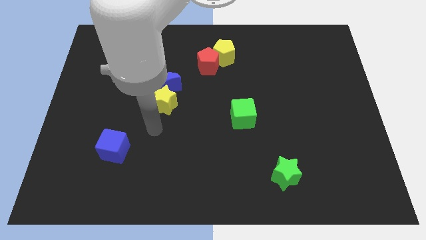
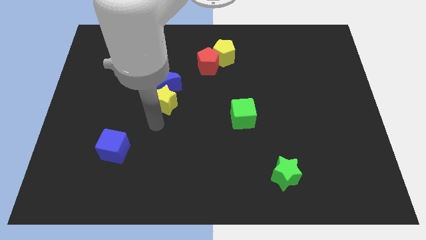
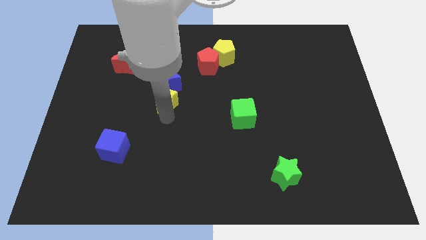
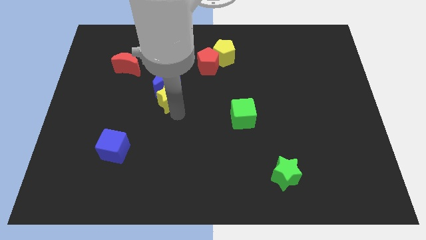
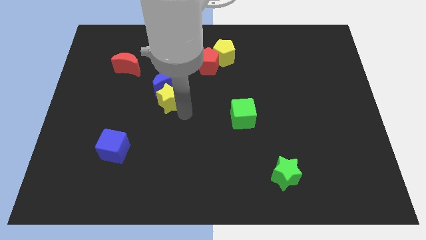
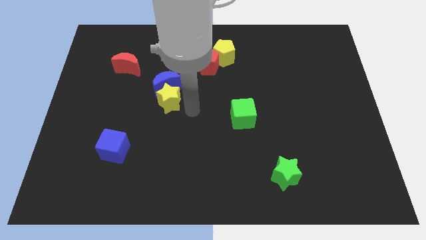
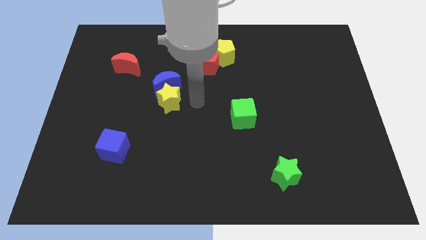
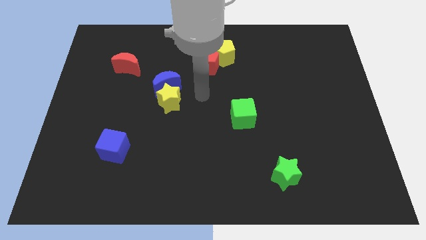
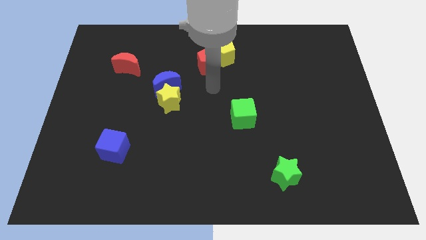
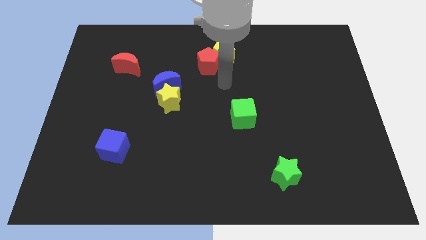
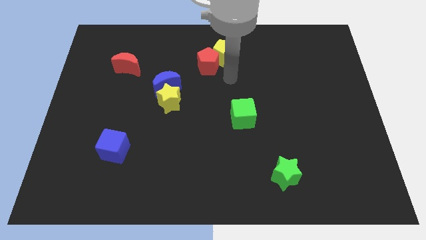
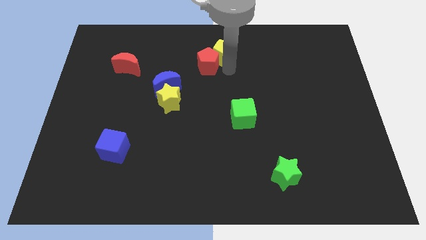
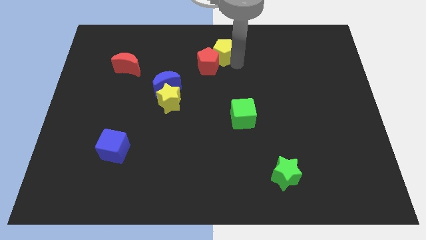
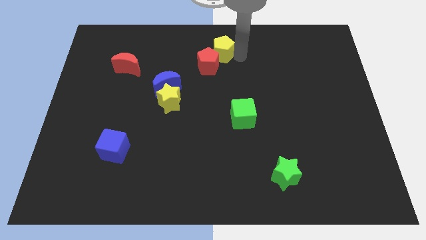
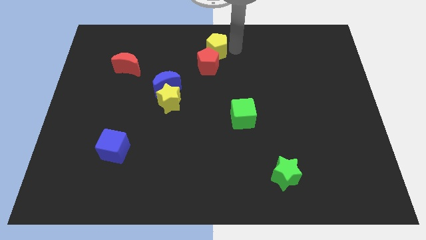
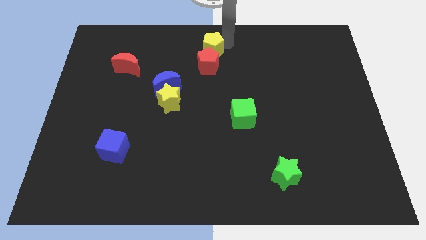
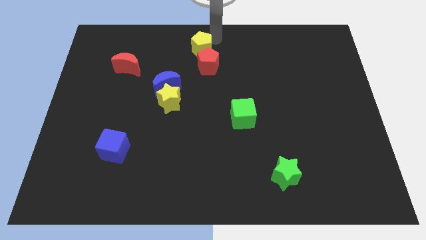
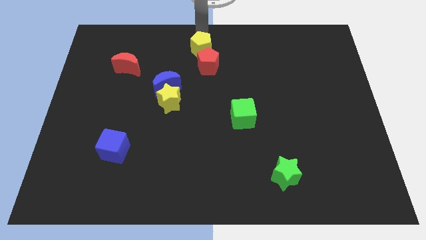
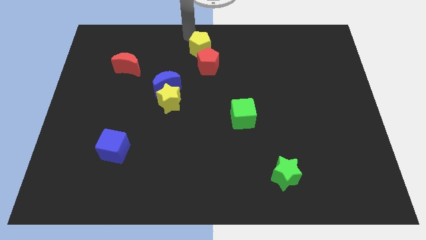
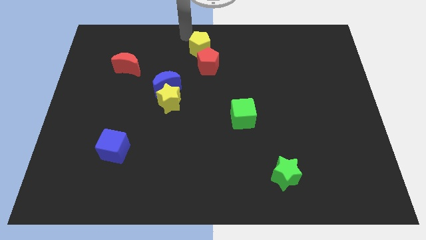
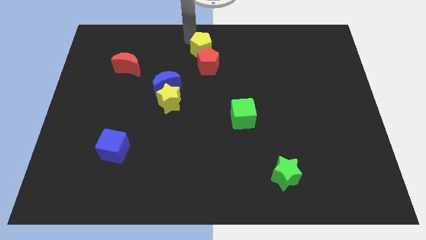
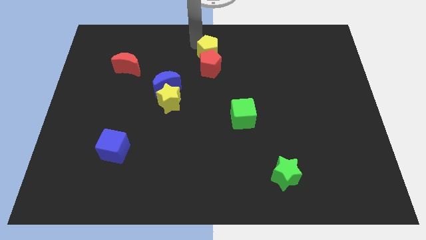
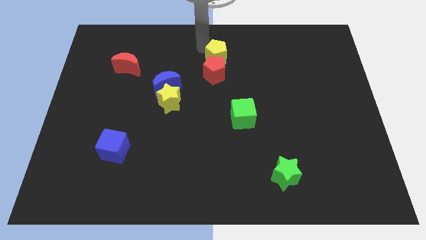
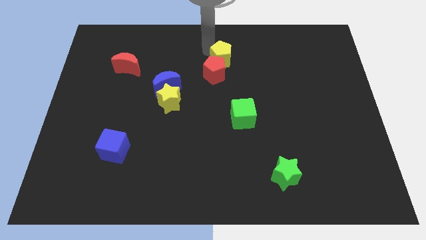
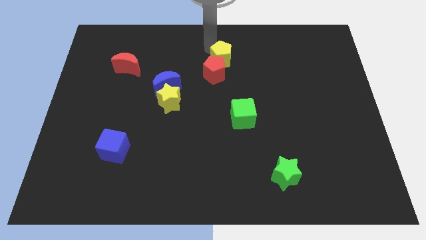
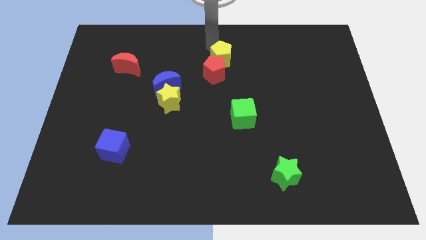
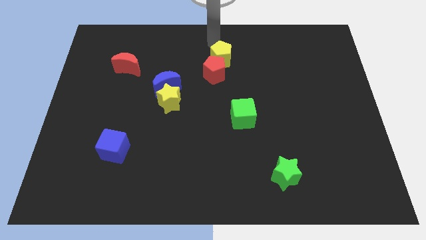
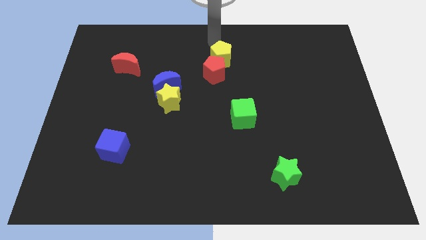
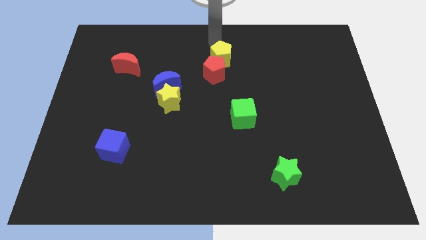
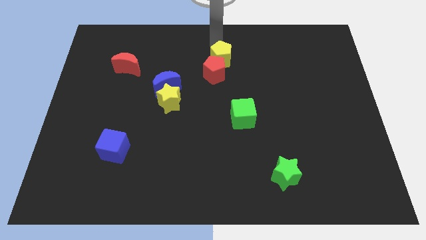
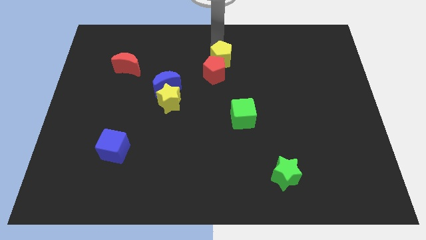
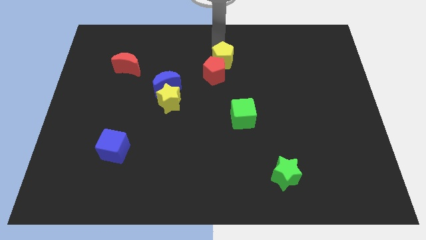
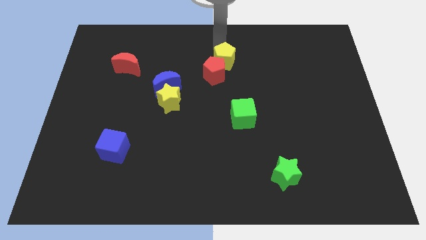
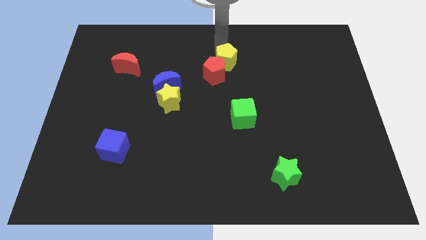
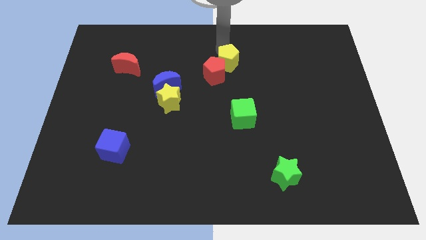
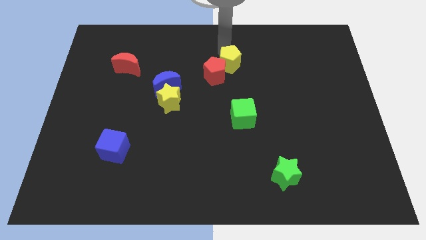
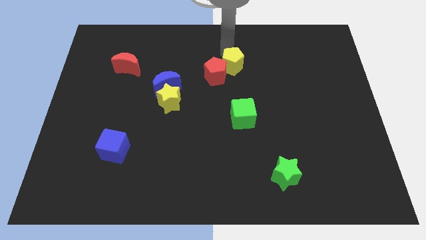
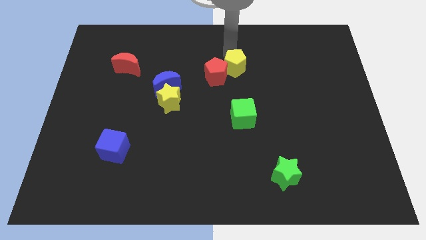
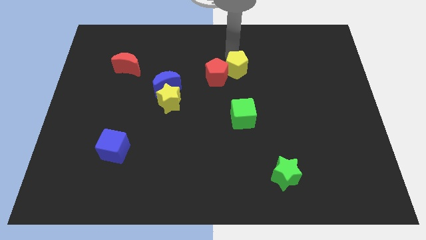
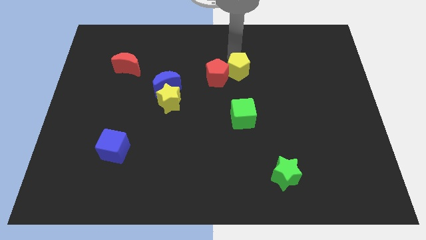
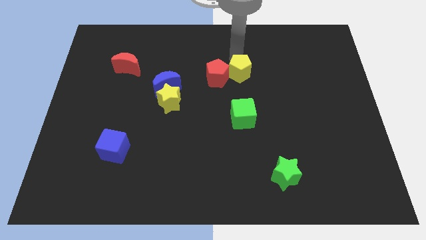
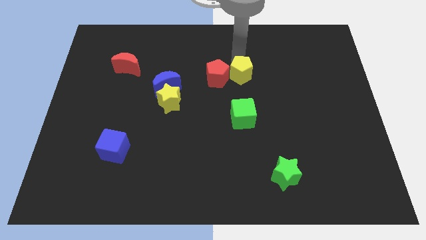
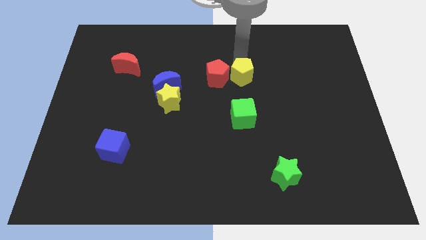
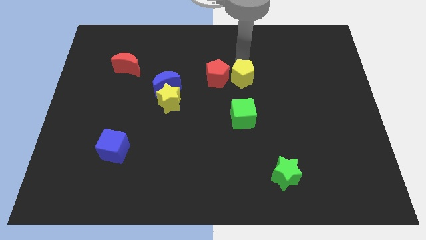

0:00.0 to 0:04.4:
move the yellow pentagon a little down

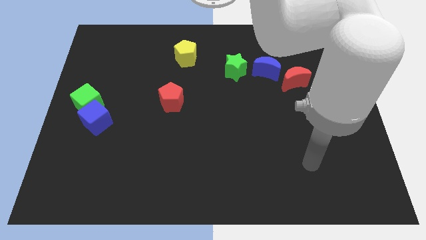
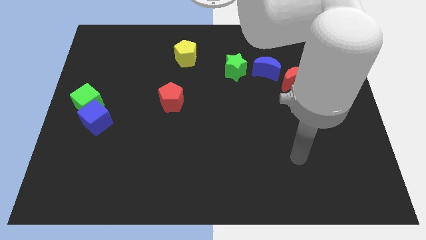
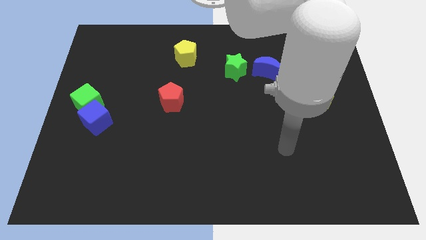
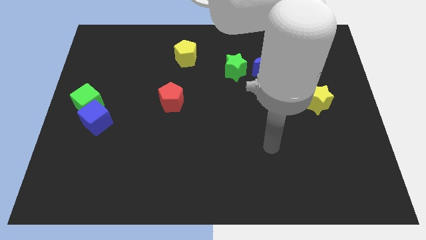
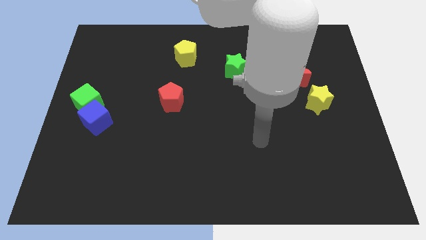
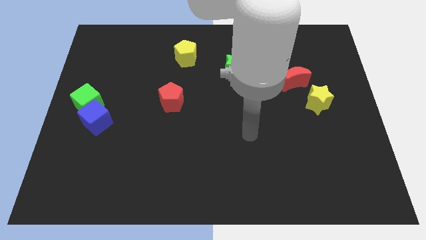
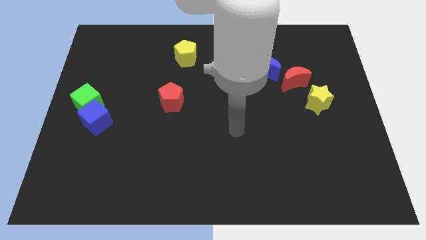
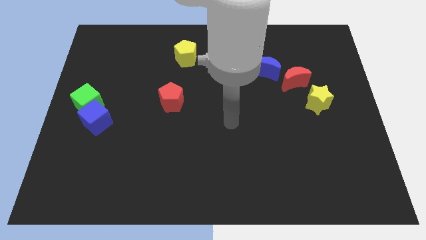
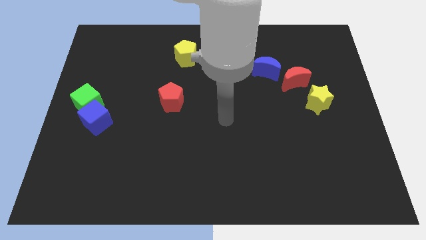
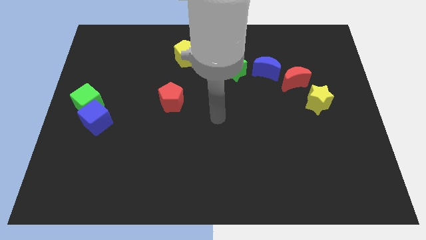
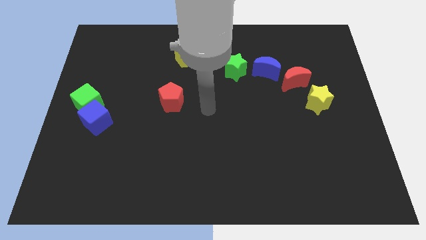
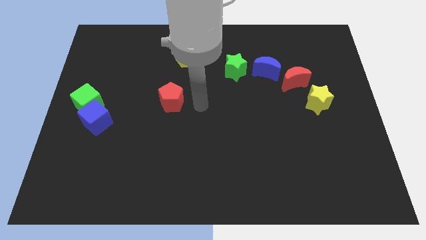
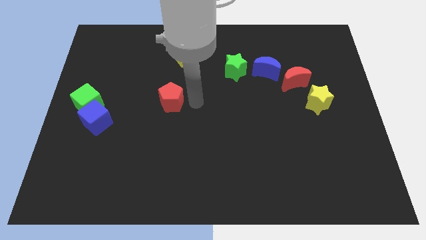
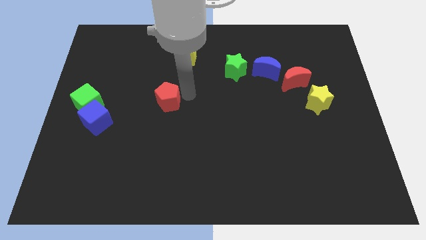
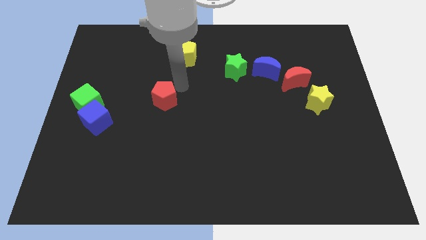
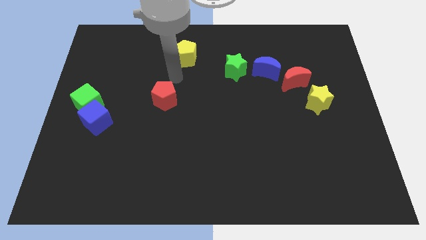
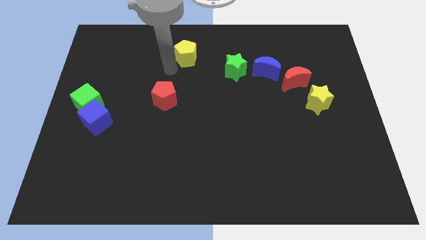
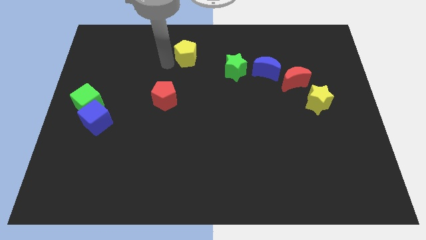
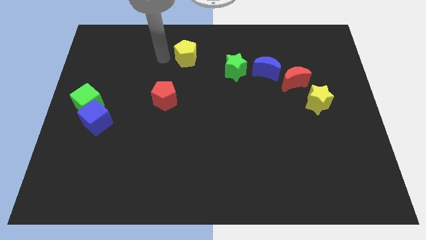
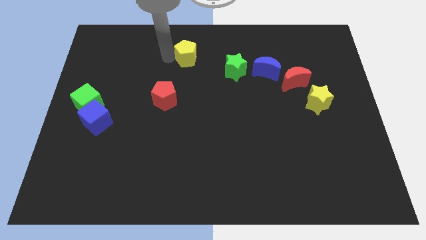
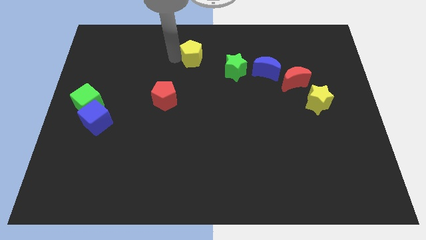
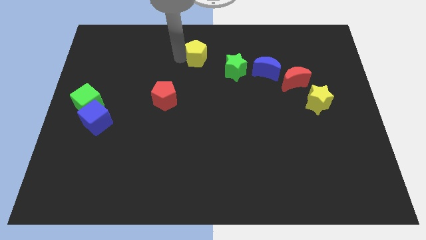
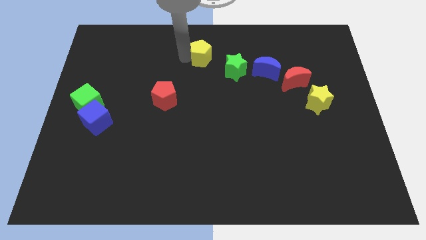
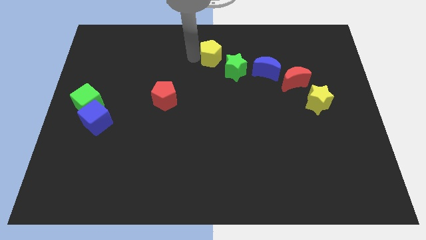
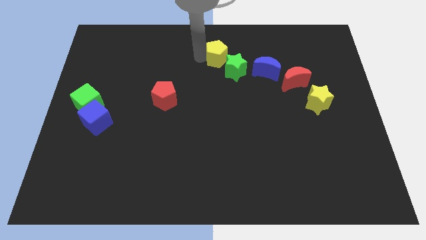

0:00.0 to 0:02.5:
move the yellow pentagon somewhat right

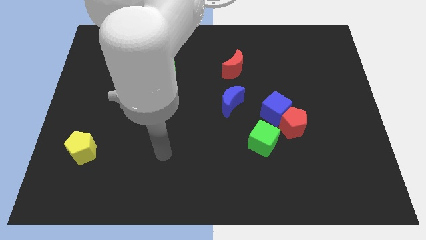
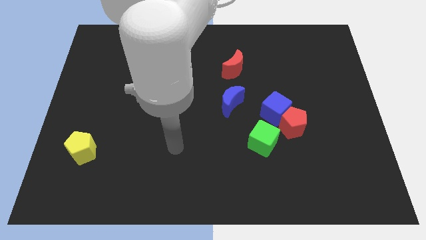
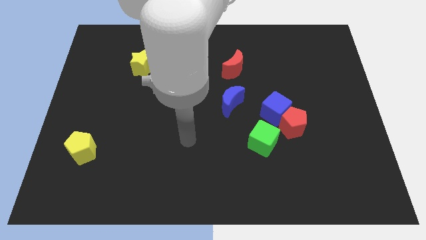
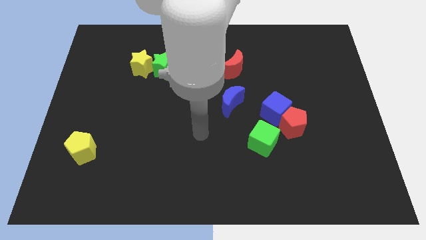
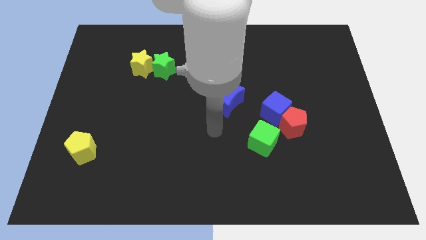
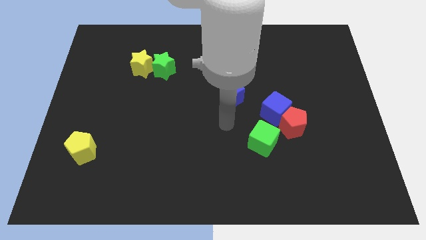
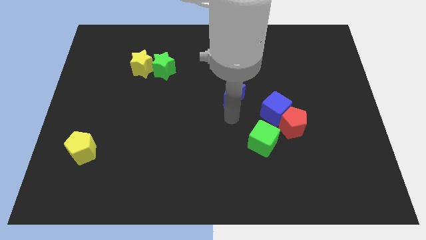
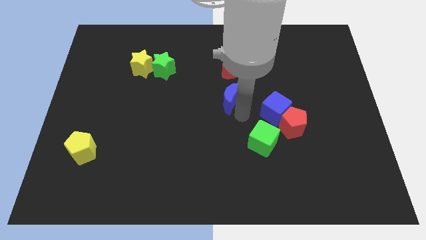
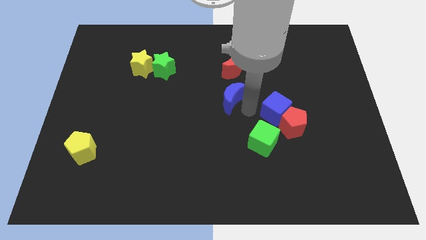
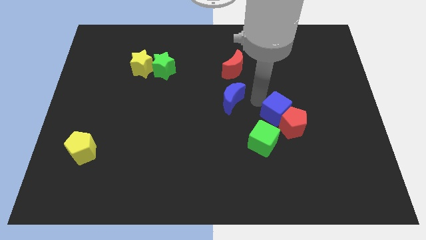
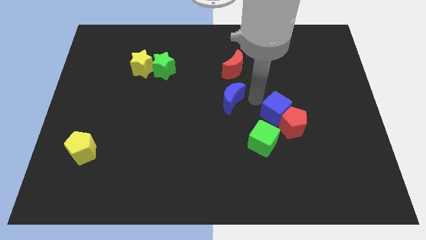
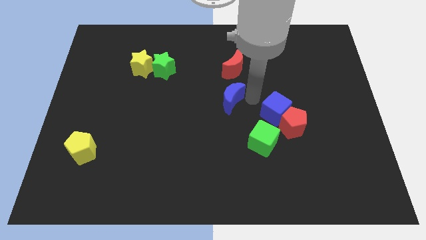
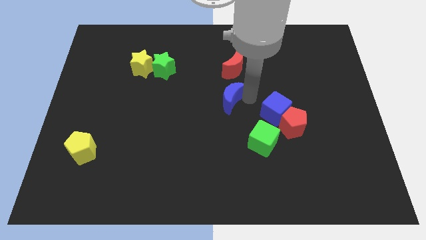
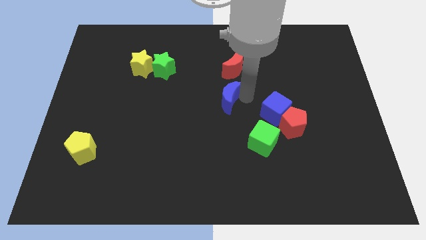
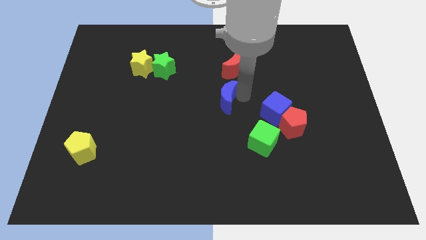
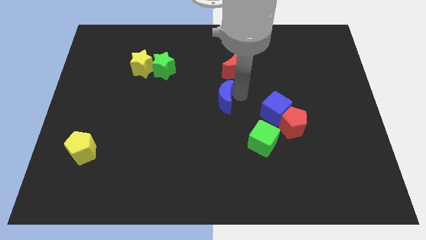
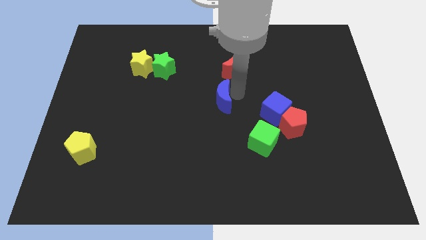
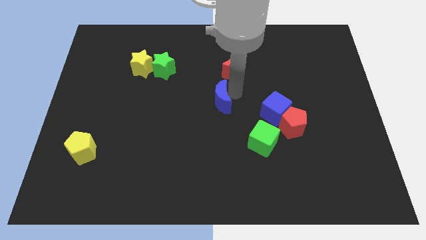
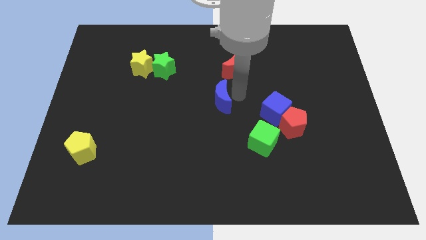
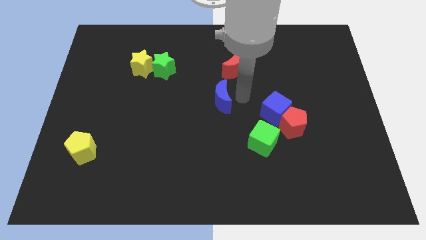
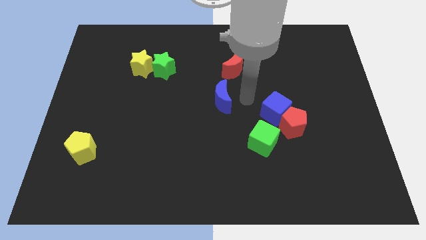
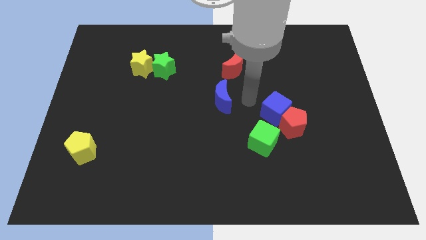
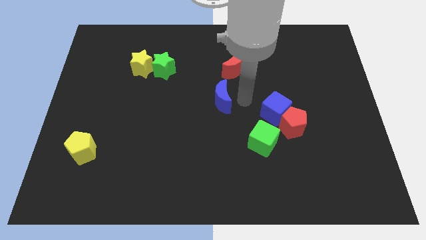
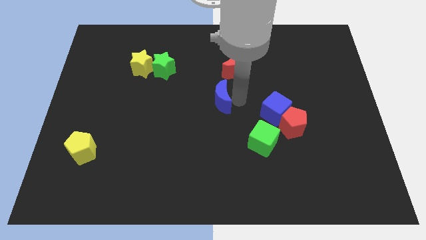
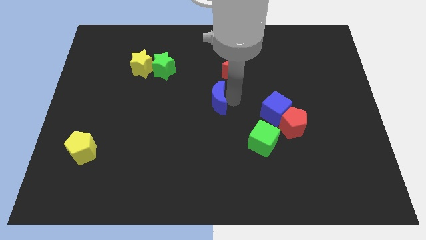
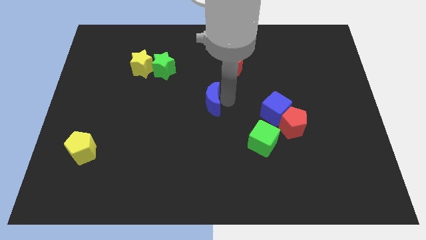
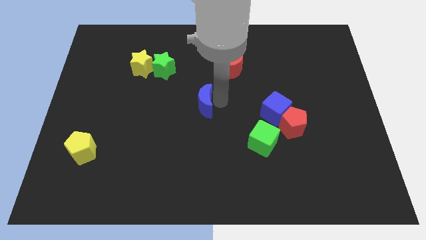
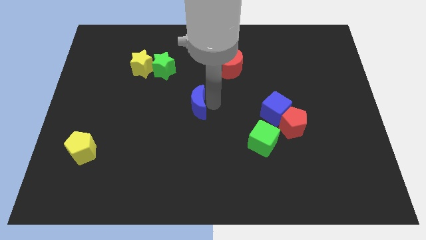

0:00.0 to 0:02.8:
slide the blue moon slightly to the left
